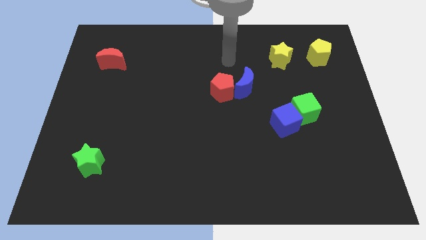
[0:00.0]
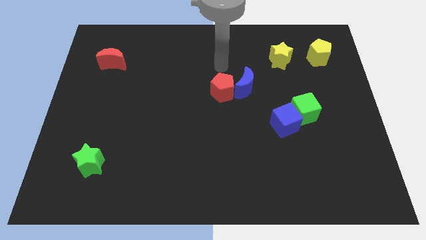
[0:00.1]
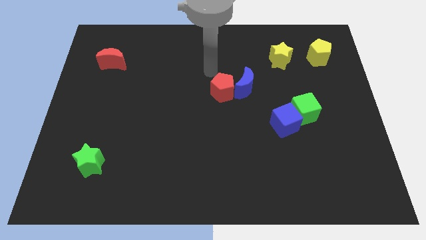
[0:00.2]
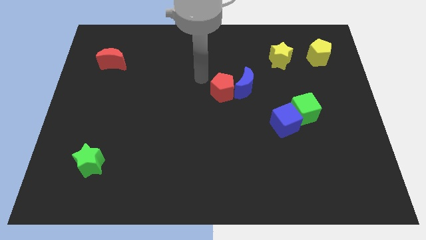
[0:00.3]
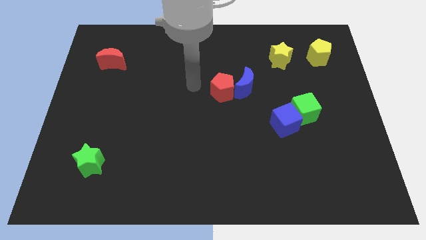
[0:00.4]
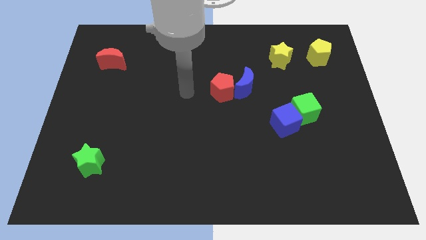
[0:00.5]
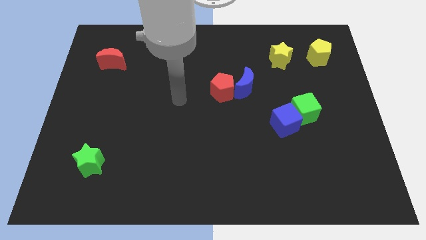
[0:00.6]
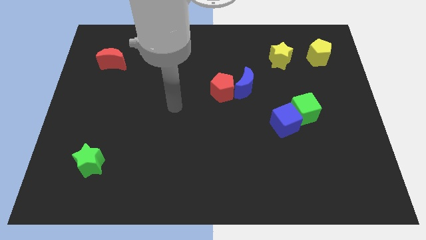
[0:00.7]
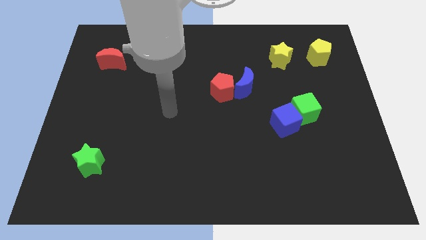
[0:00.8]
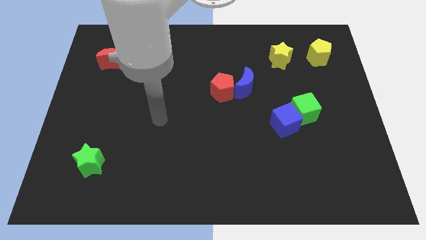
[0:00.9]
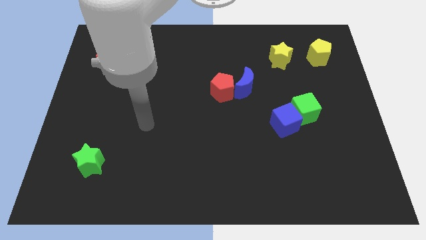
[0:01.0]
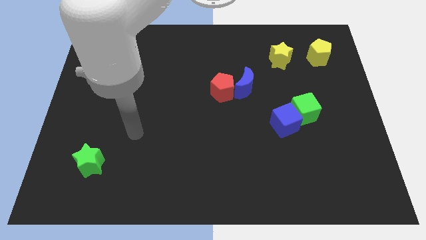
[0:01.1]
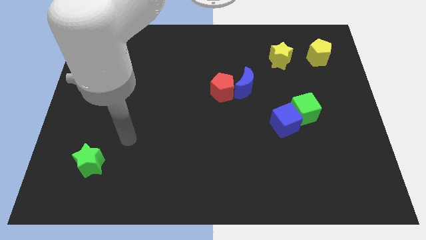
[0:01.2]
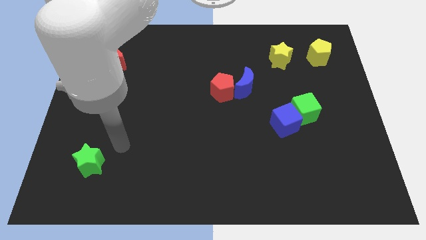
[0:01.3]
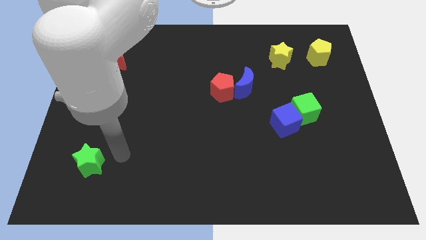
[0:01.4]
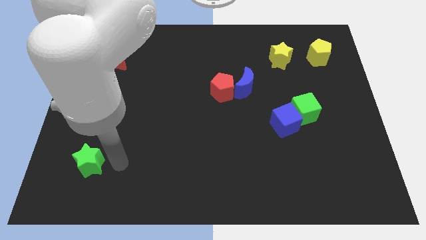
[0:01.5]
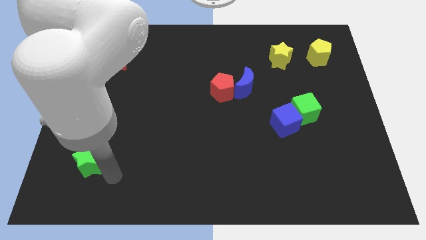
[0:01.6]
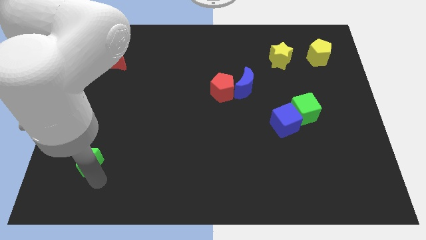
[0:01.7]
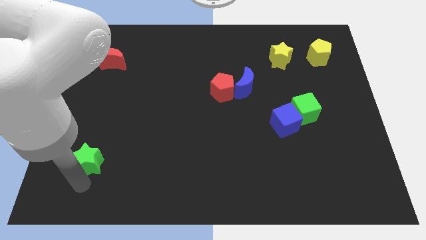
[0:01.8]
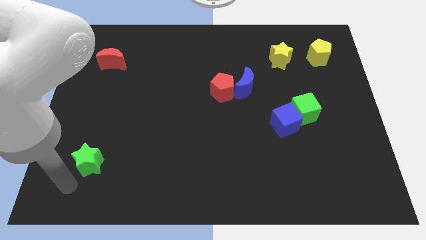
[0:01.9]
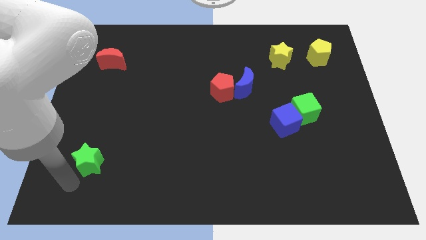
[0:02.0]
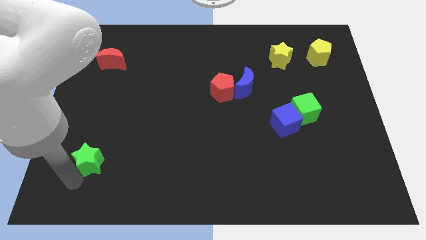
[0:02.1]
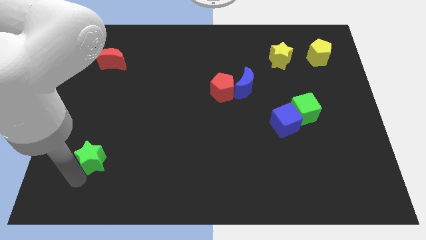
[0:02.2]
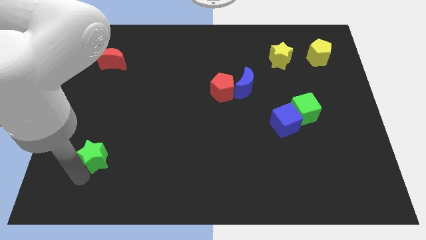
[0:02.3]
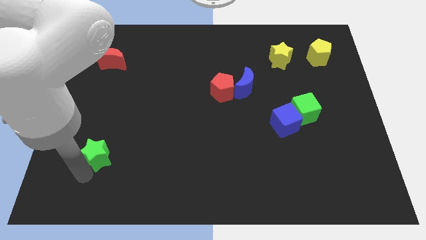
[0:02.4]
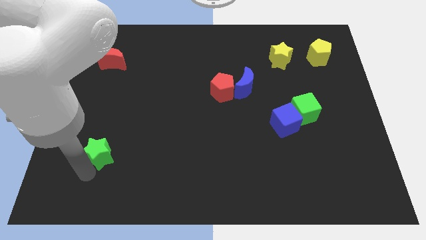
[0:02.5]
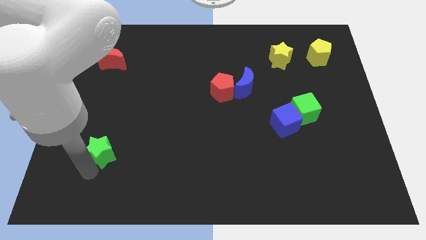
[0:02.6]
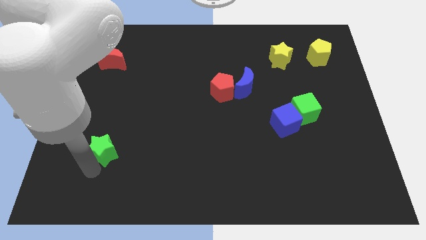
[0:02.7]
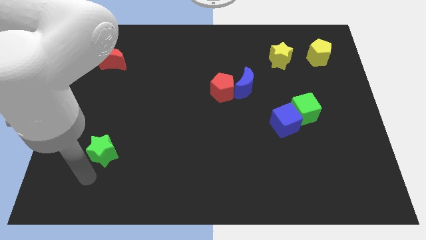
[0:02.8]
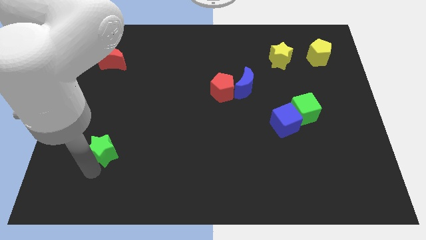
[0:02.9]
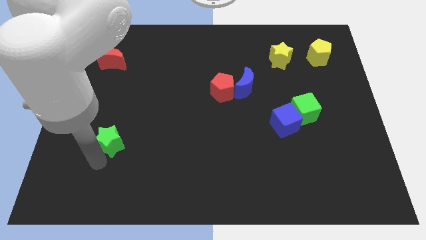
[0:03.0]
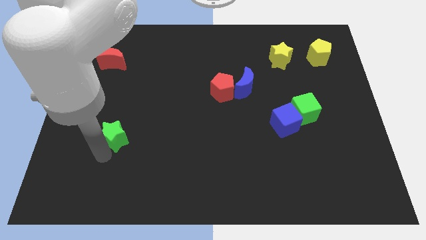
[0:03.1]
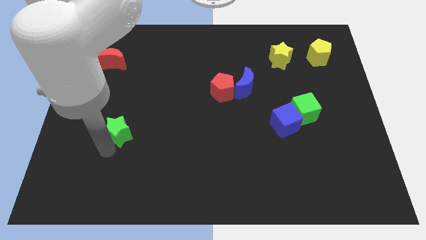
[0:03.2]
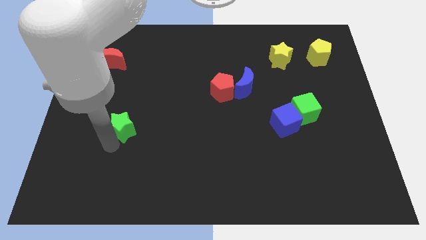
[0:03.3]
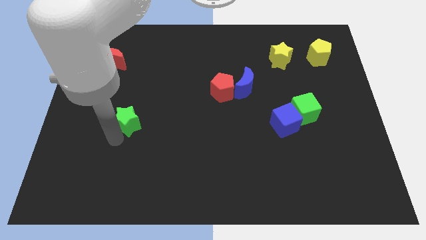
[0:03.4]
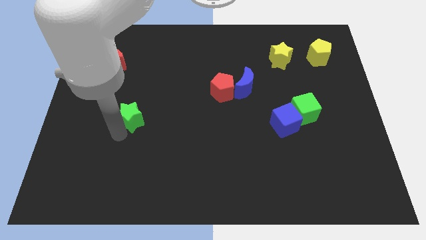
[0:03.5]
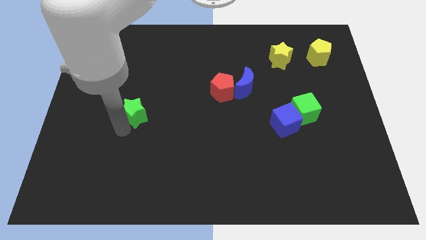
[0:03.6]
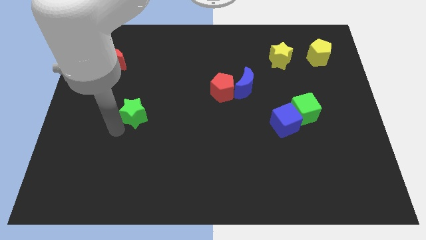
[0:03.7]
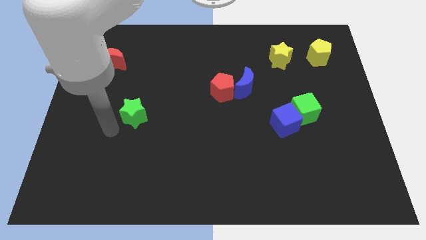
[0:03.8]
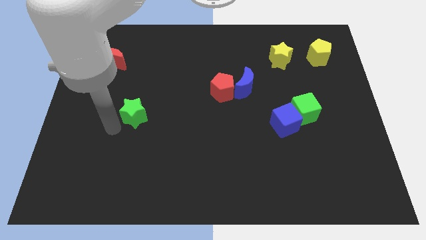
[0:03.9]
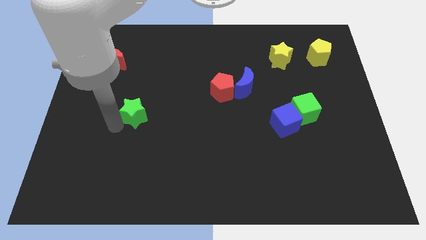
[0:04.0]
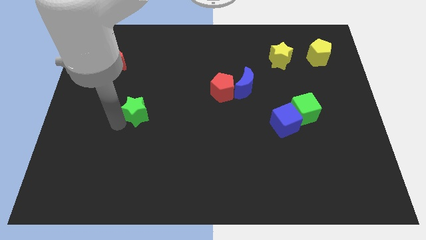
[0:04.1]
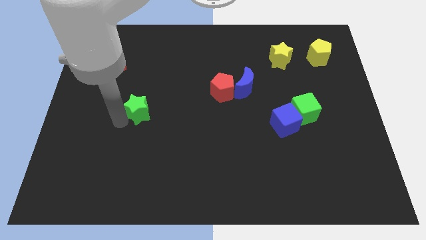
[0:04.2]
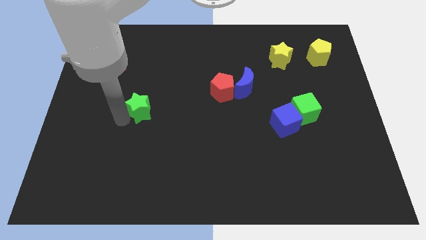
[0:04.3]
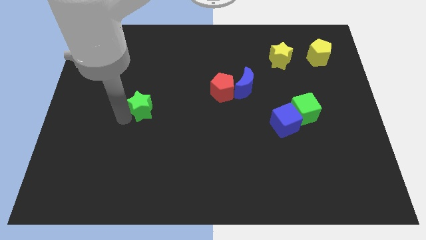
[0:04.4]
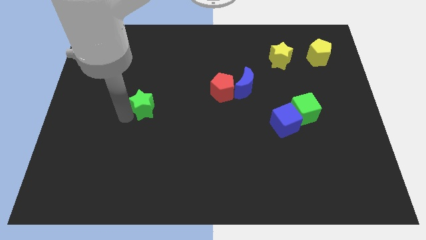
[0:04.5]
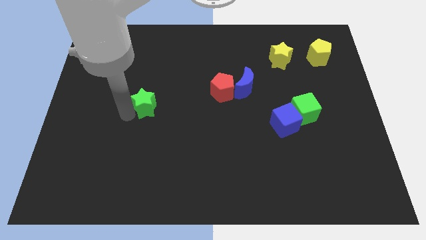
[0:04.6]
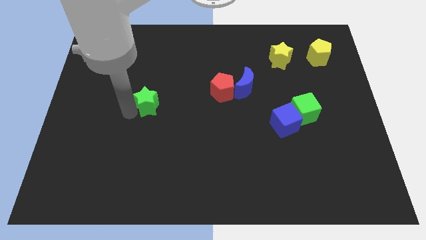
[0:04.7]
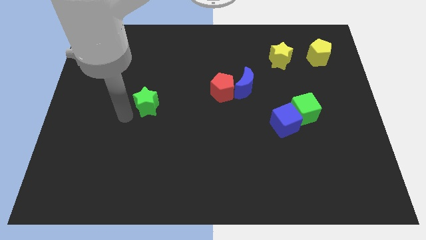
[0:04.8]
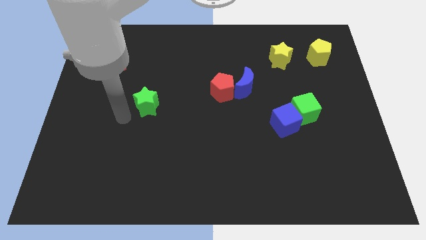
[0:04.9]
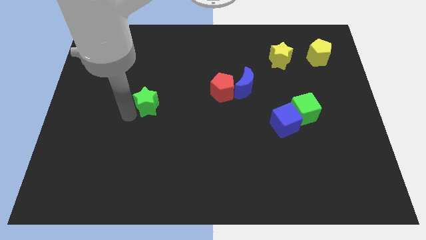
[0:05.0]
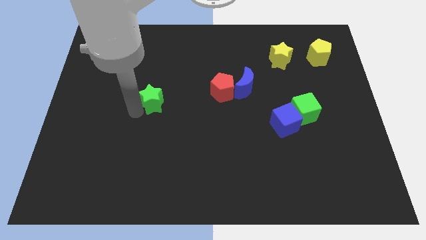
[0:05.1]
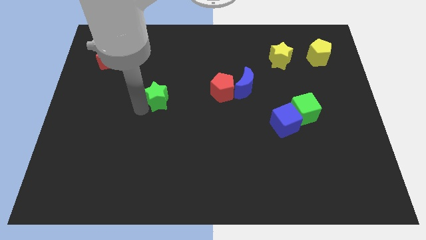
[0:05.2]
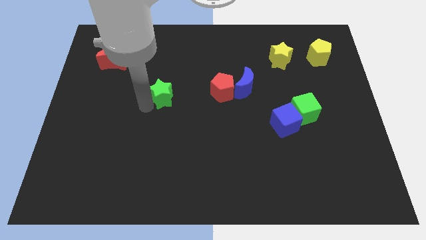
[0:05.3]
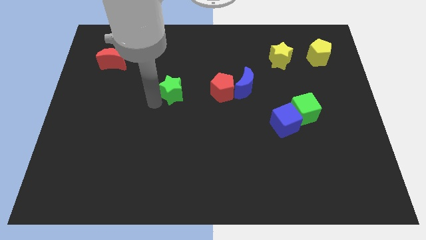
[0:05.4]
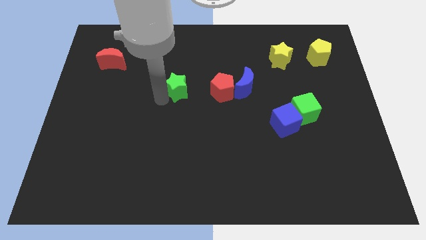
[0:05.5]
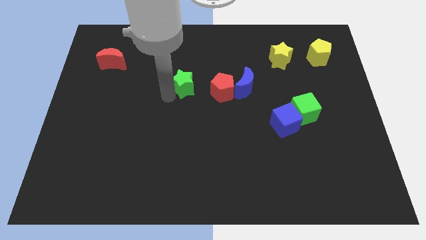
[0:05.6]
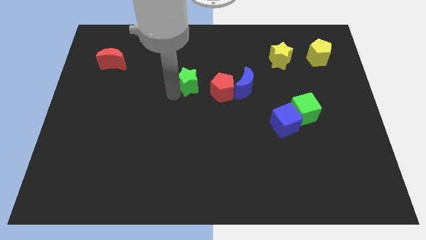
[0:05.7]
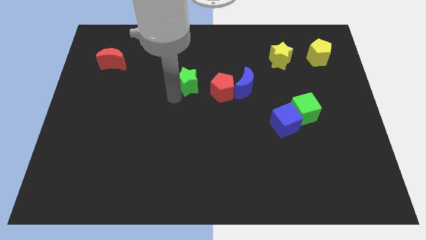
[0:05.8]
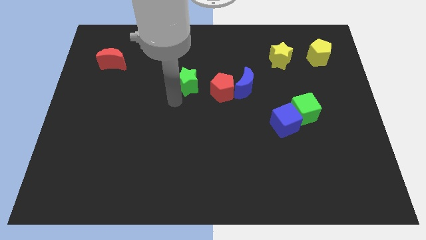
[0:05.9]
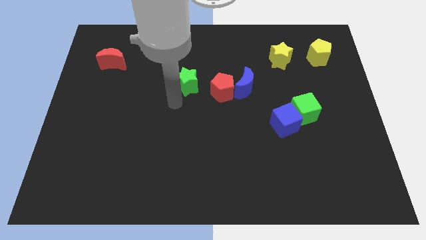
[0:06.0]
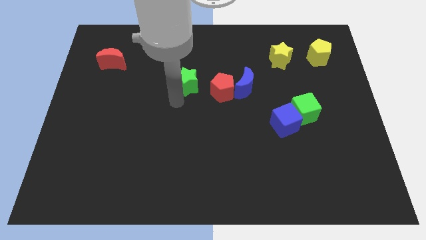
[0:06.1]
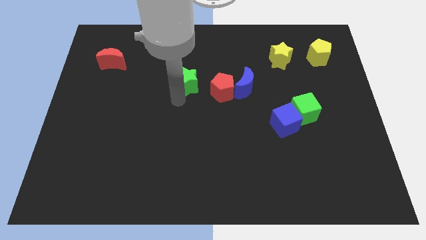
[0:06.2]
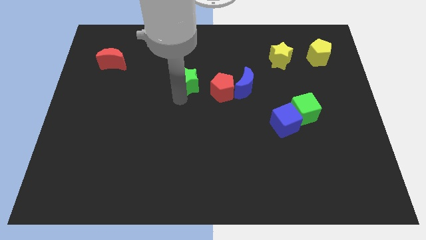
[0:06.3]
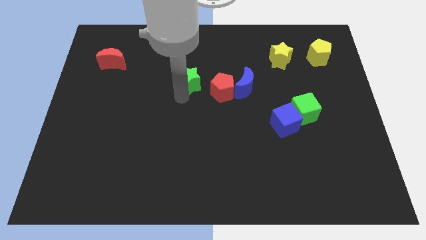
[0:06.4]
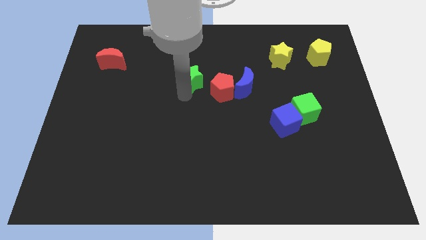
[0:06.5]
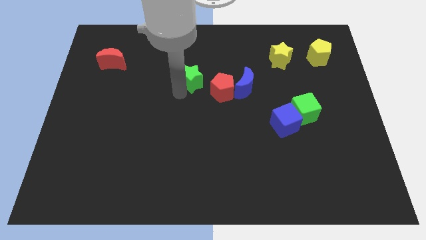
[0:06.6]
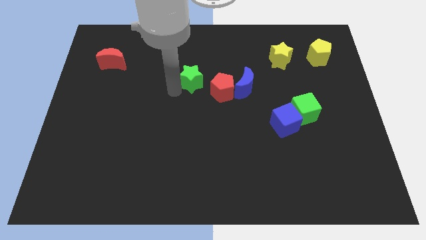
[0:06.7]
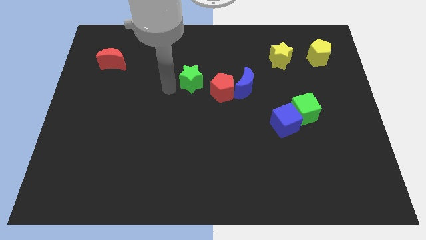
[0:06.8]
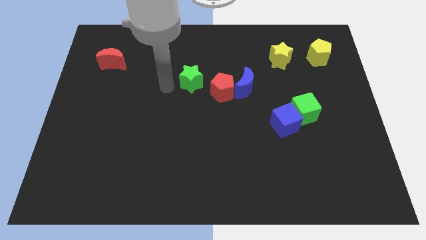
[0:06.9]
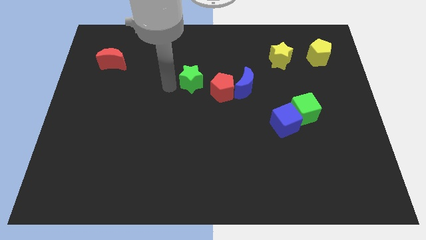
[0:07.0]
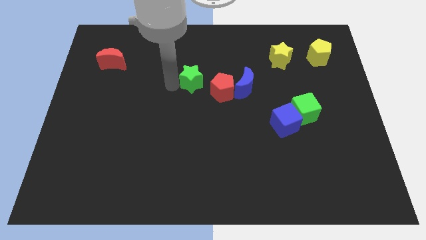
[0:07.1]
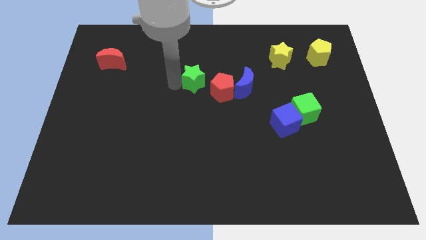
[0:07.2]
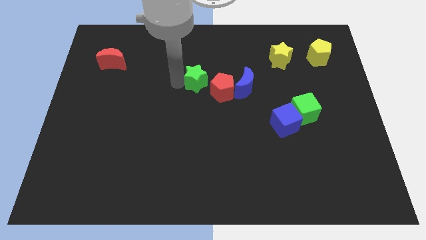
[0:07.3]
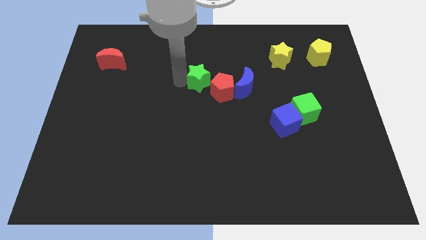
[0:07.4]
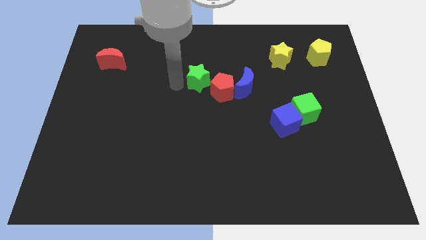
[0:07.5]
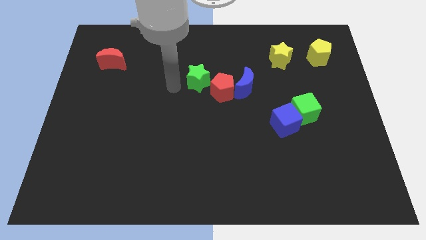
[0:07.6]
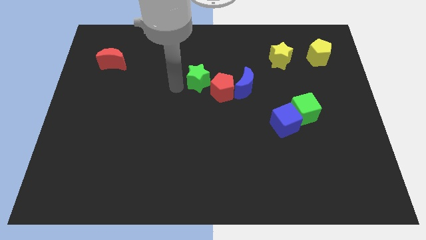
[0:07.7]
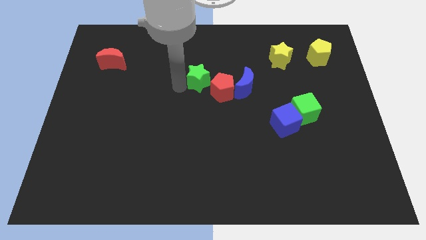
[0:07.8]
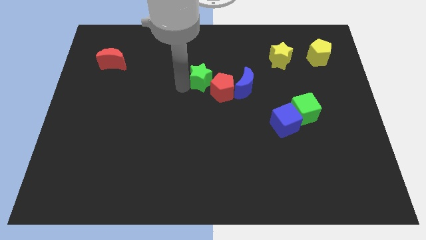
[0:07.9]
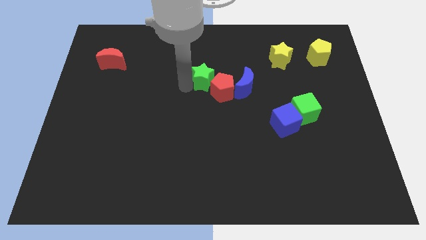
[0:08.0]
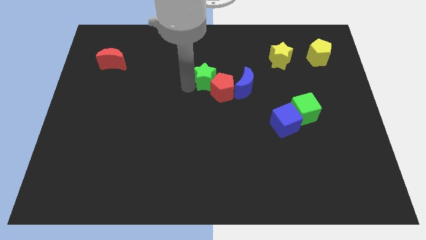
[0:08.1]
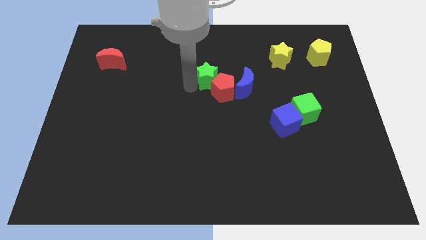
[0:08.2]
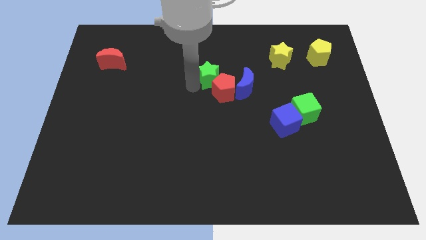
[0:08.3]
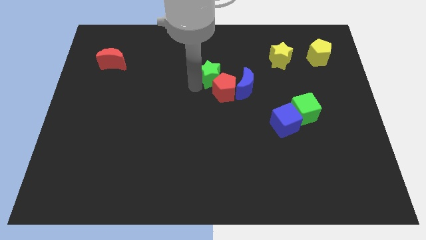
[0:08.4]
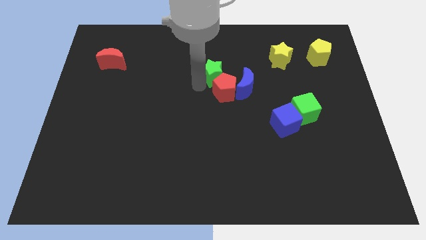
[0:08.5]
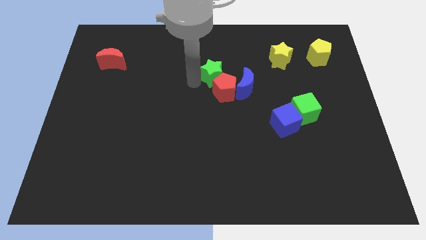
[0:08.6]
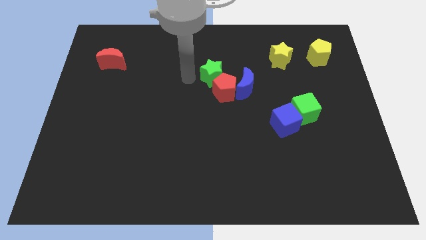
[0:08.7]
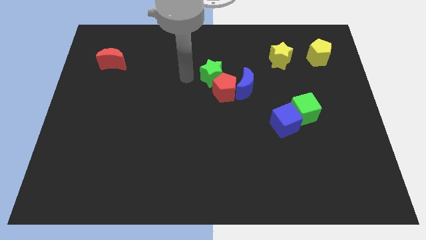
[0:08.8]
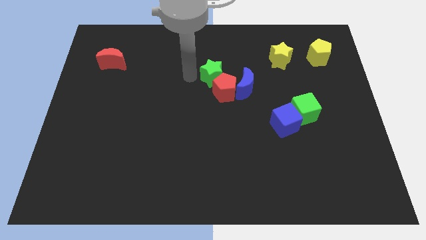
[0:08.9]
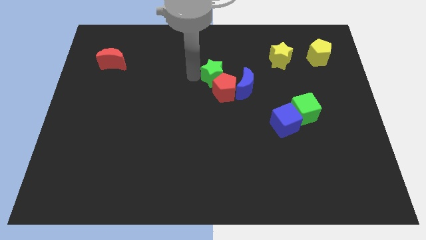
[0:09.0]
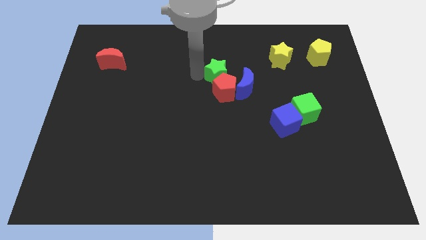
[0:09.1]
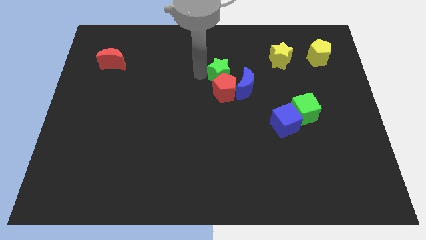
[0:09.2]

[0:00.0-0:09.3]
slide the green star to the top right side of the red pentagon
